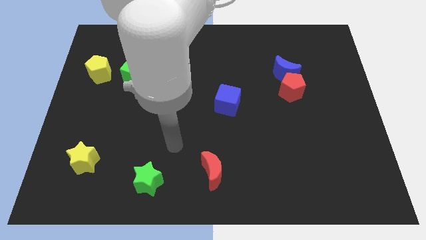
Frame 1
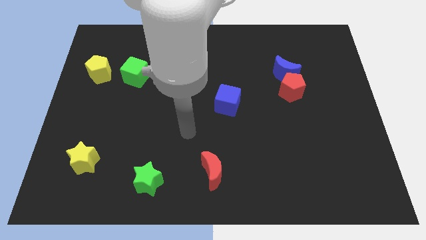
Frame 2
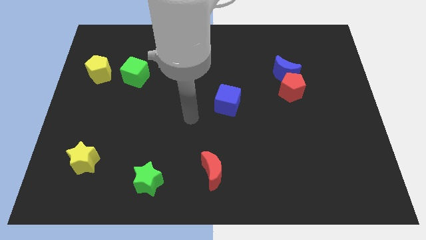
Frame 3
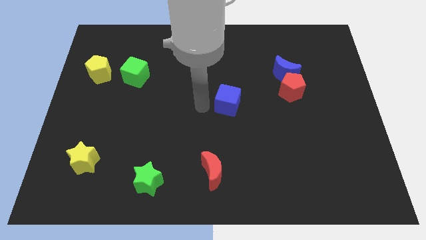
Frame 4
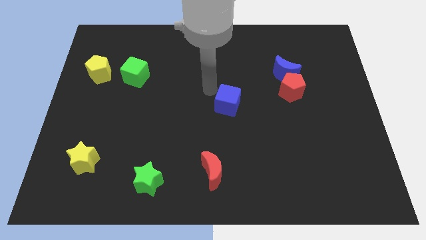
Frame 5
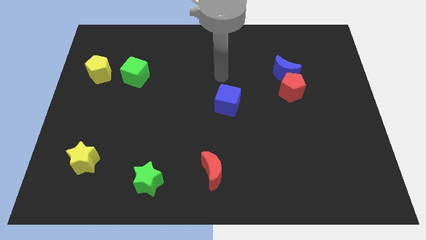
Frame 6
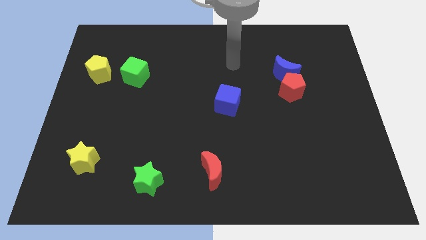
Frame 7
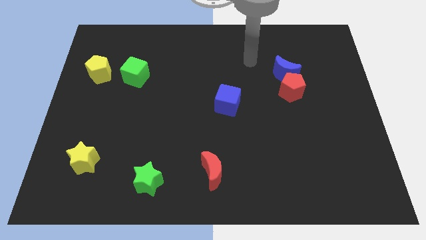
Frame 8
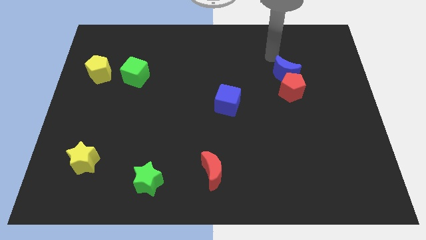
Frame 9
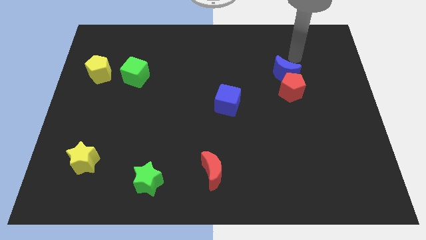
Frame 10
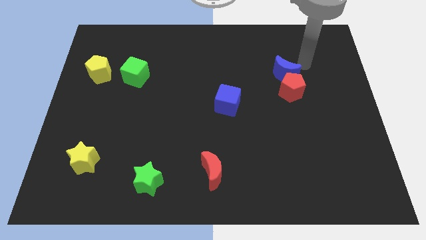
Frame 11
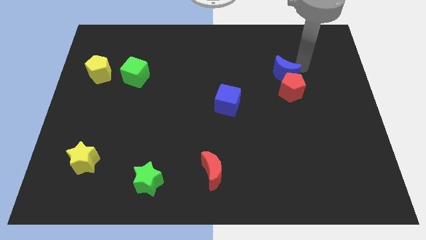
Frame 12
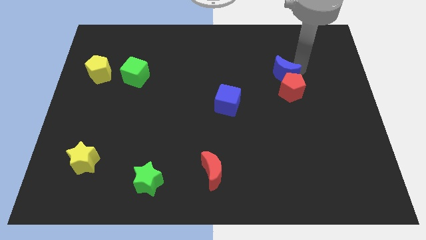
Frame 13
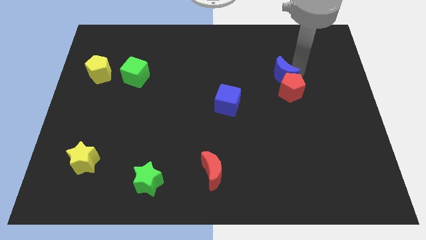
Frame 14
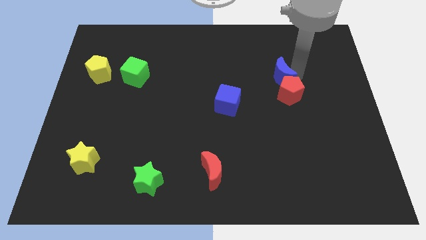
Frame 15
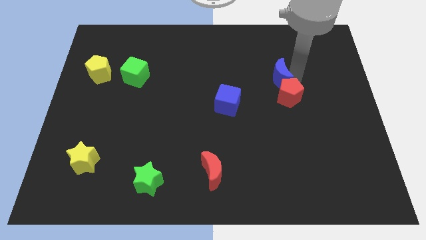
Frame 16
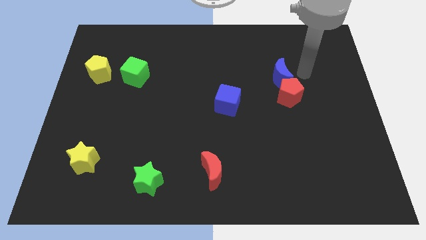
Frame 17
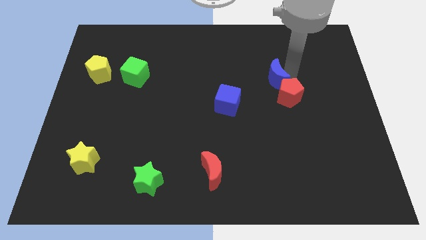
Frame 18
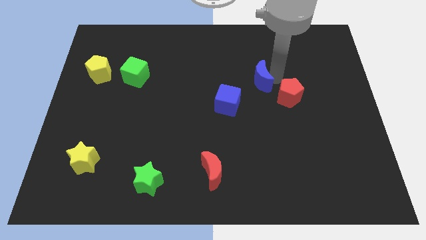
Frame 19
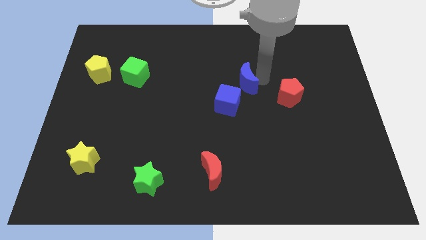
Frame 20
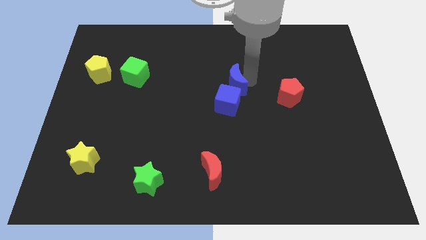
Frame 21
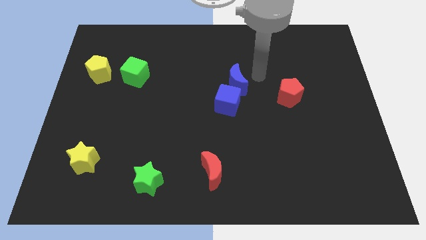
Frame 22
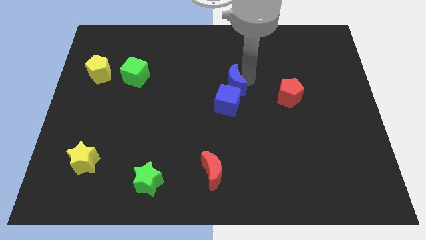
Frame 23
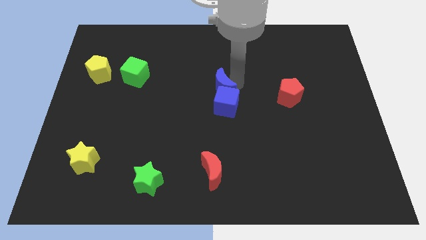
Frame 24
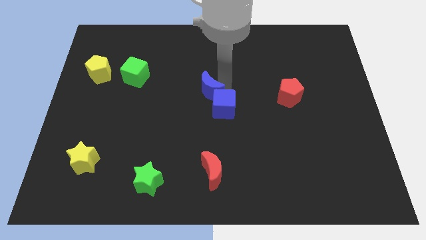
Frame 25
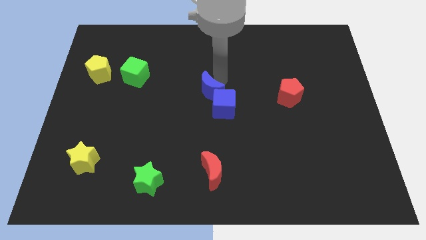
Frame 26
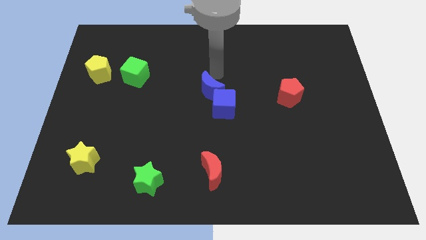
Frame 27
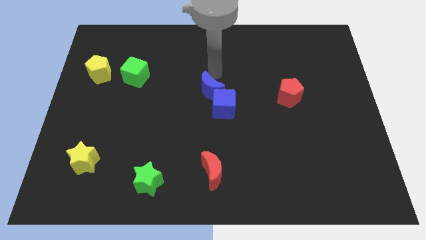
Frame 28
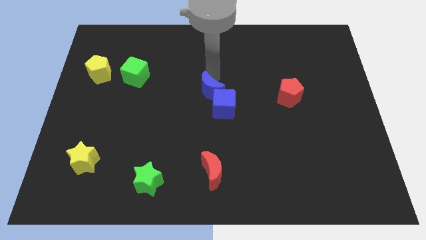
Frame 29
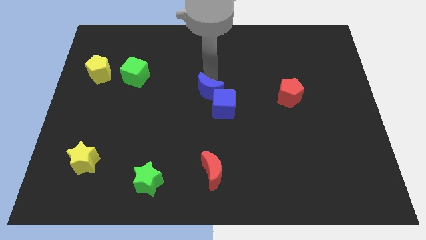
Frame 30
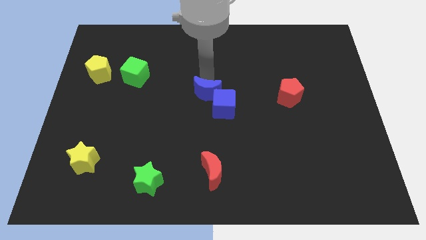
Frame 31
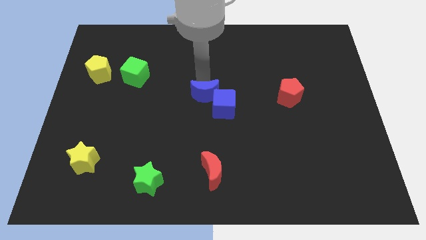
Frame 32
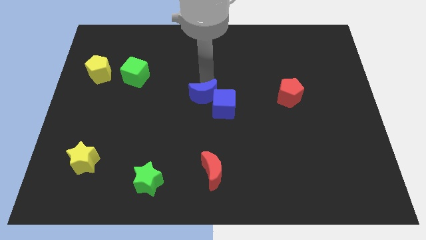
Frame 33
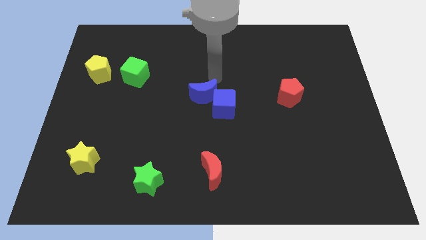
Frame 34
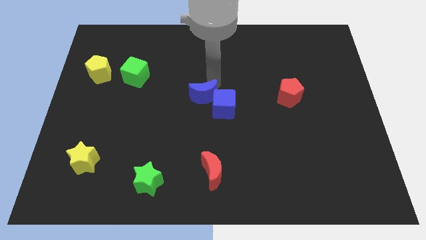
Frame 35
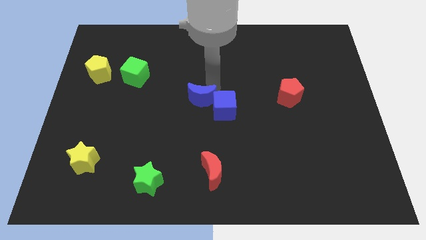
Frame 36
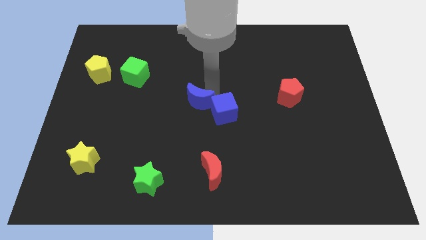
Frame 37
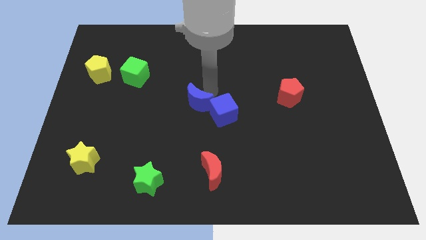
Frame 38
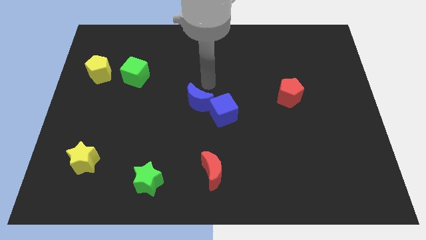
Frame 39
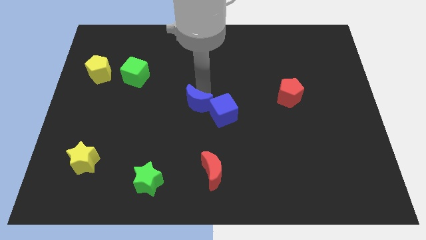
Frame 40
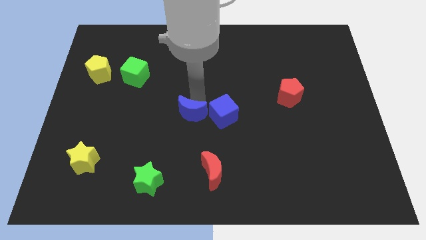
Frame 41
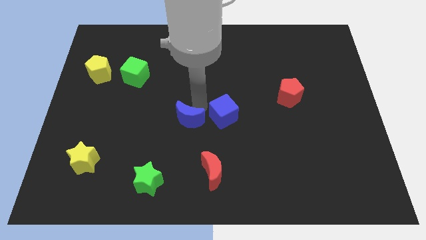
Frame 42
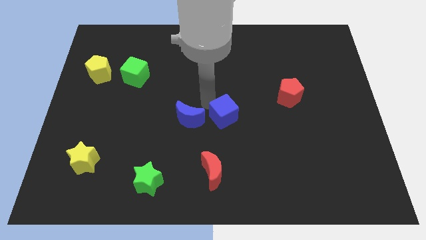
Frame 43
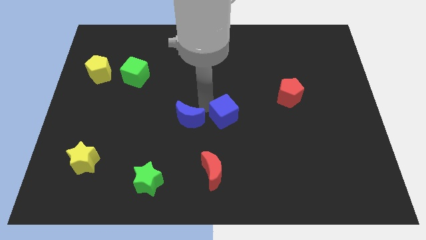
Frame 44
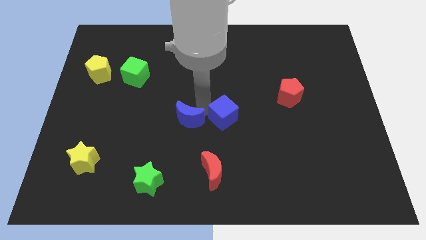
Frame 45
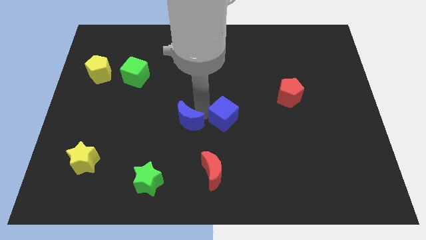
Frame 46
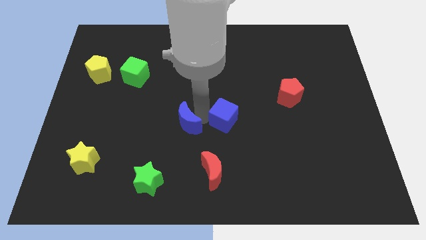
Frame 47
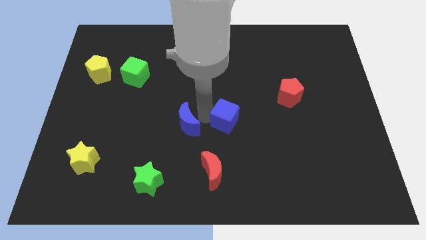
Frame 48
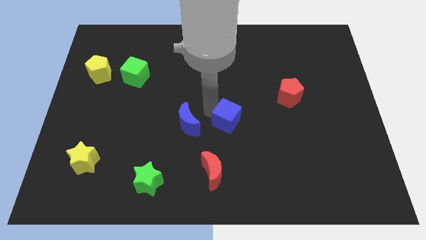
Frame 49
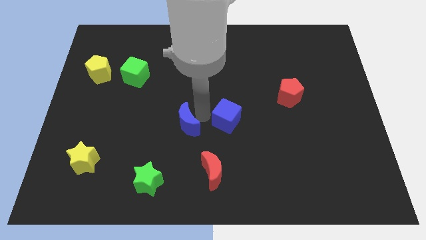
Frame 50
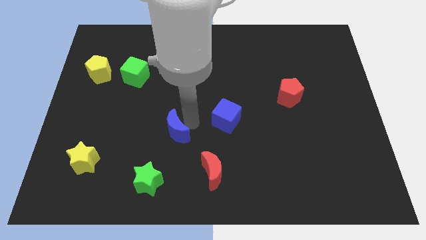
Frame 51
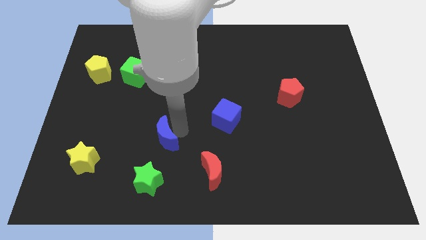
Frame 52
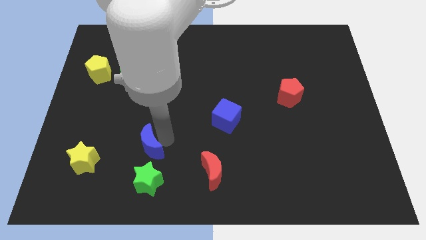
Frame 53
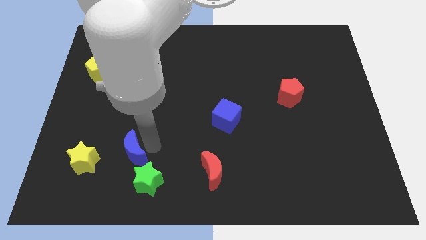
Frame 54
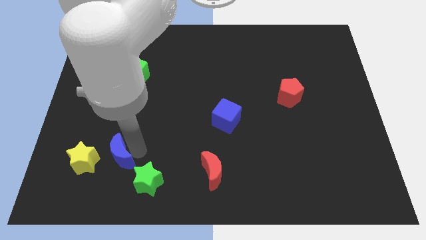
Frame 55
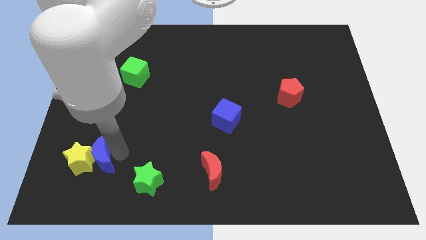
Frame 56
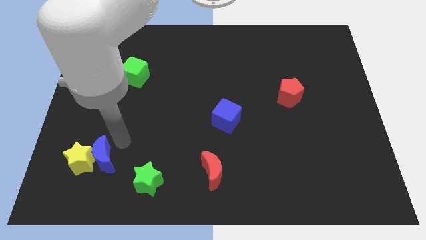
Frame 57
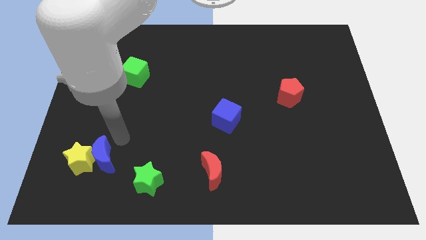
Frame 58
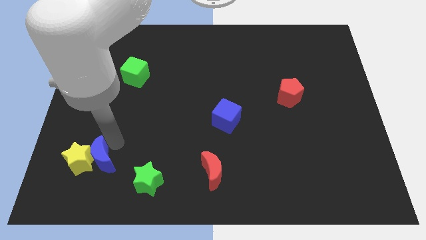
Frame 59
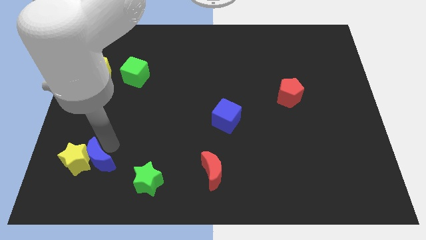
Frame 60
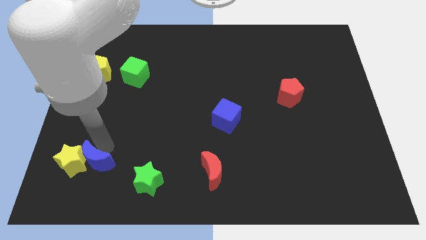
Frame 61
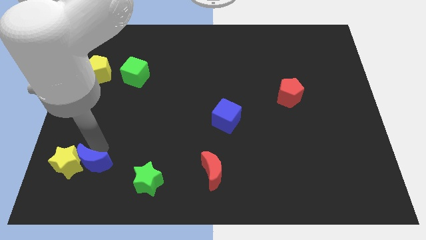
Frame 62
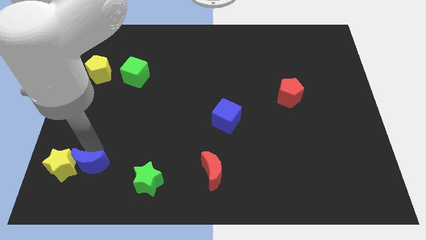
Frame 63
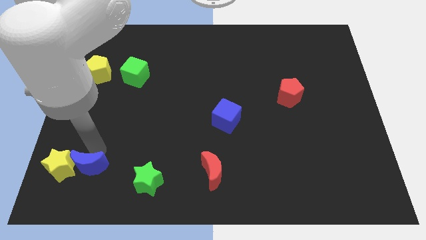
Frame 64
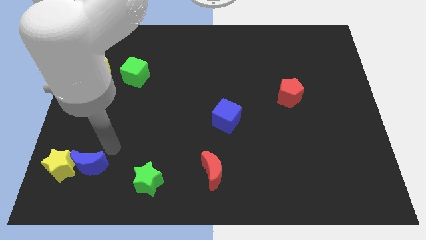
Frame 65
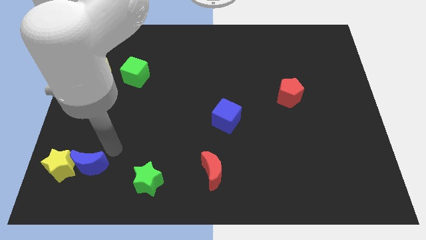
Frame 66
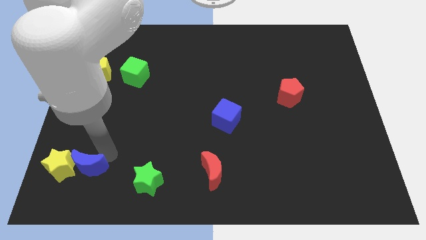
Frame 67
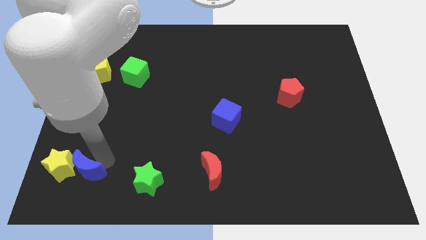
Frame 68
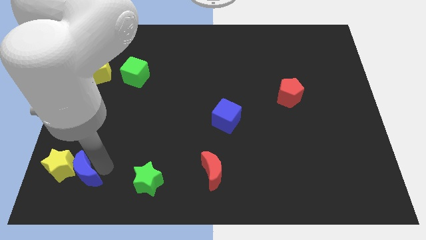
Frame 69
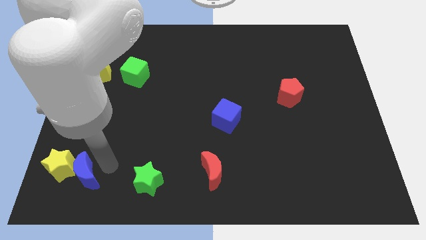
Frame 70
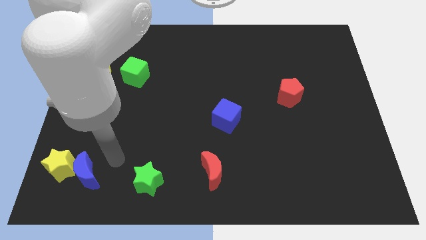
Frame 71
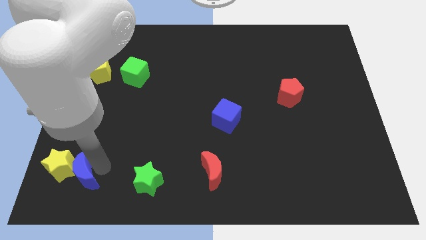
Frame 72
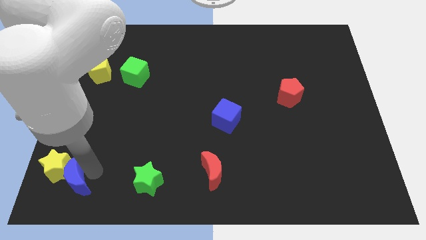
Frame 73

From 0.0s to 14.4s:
put the blue moon to the bottom left of the board

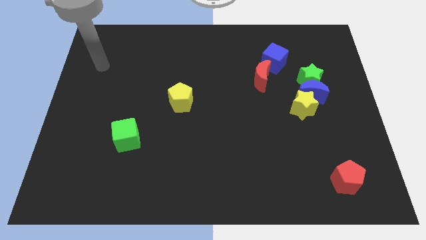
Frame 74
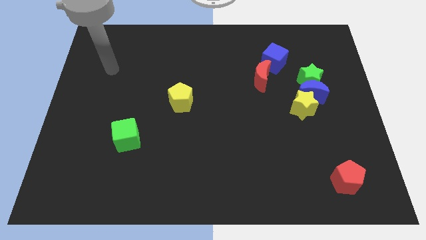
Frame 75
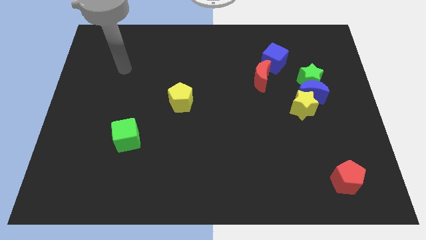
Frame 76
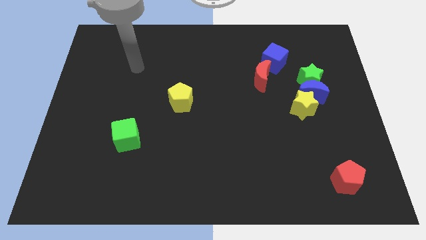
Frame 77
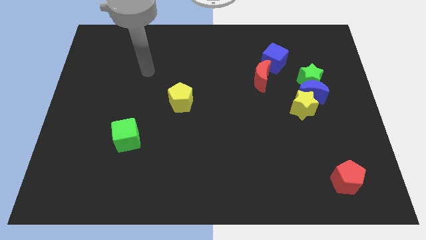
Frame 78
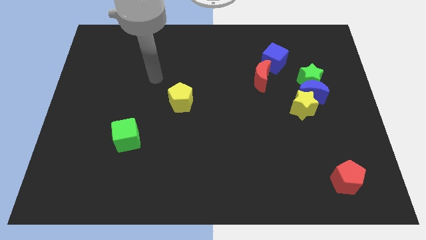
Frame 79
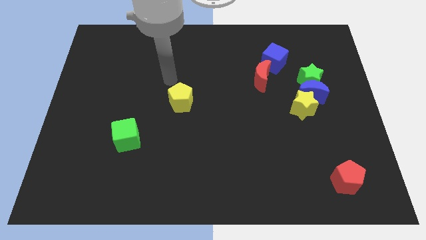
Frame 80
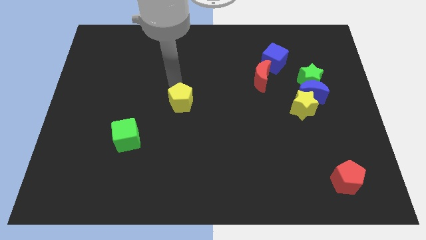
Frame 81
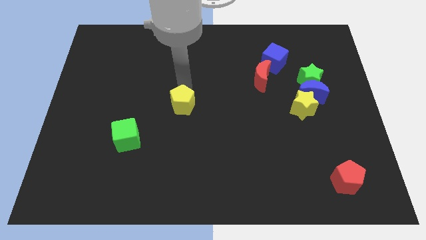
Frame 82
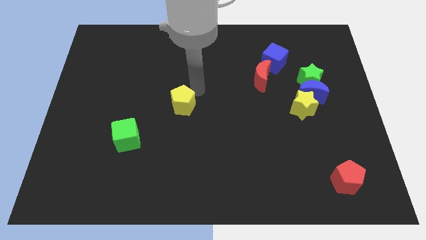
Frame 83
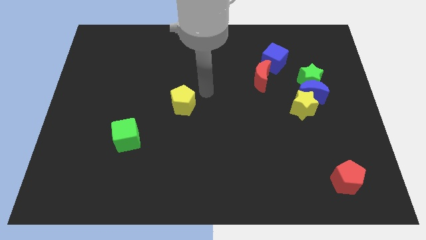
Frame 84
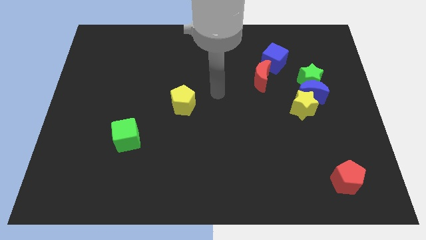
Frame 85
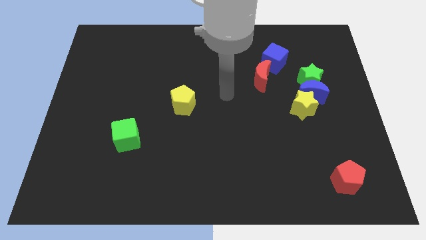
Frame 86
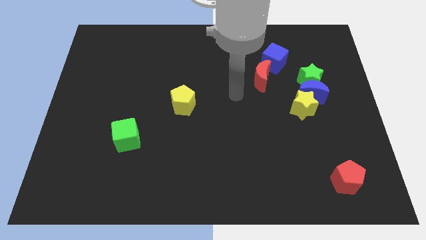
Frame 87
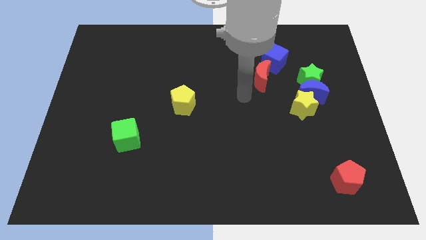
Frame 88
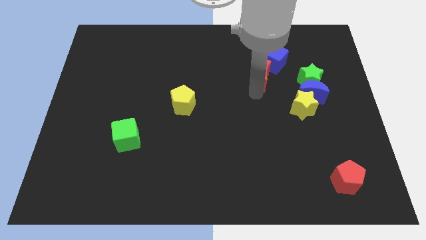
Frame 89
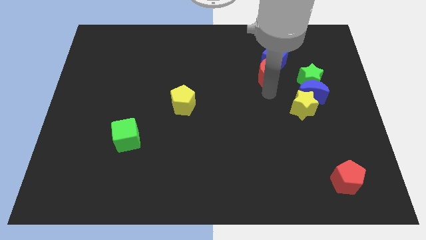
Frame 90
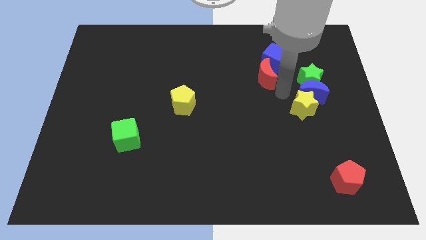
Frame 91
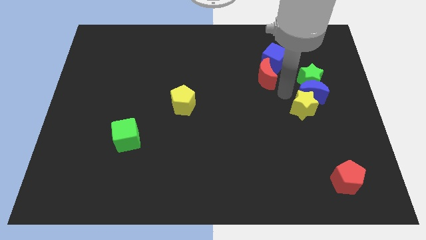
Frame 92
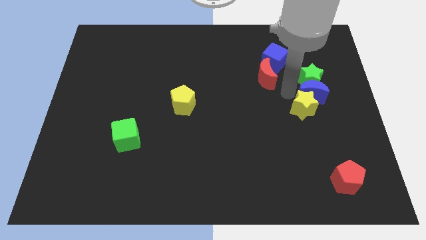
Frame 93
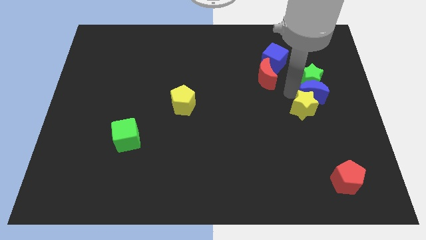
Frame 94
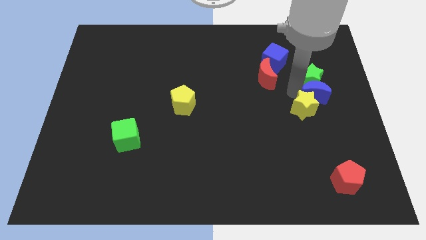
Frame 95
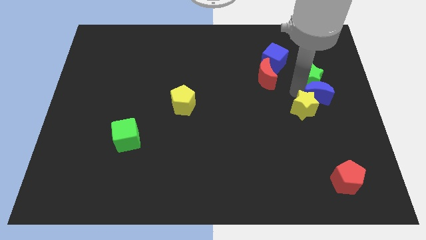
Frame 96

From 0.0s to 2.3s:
slide the blue moon to the right side of the board
